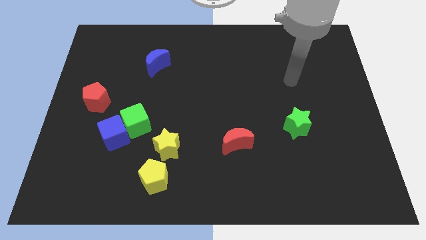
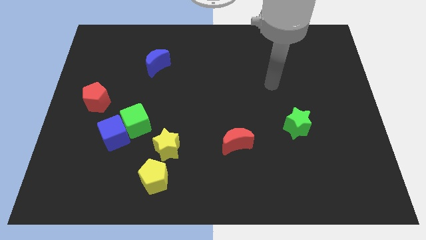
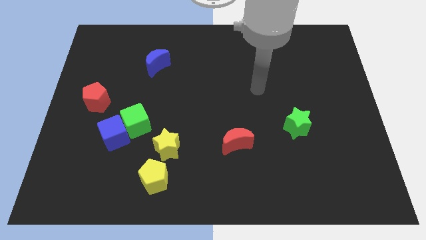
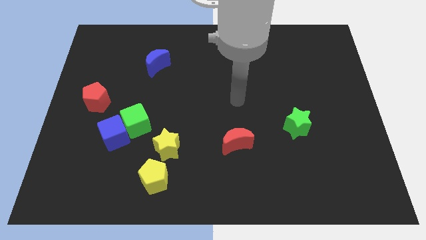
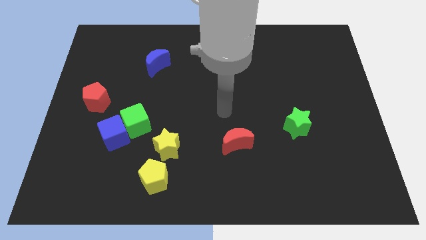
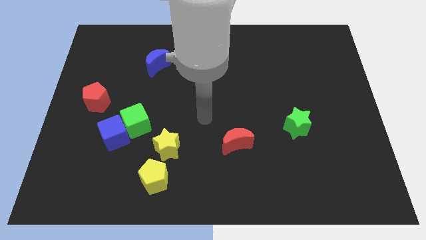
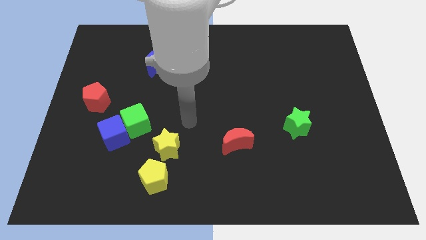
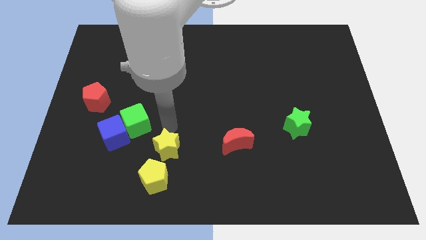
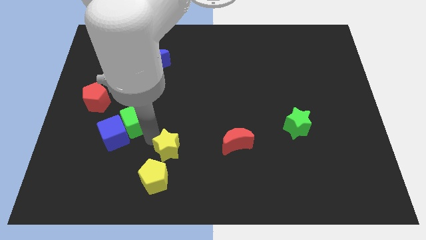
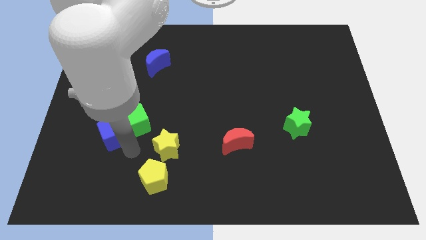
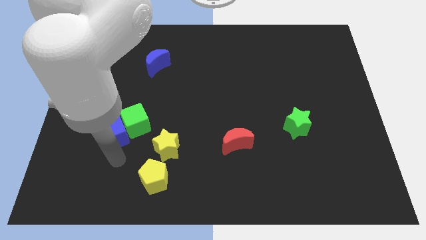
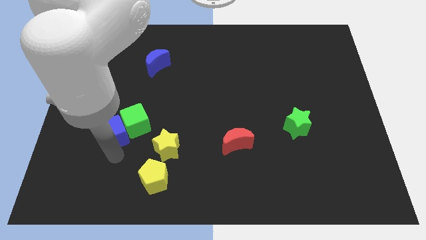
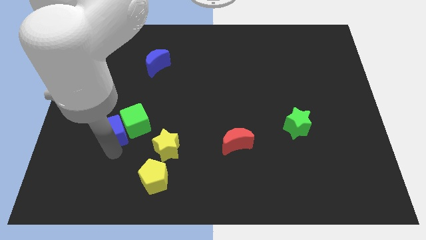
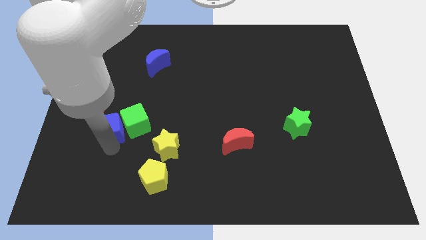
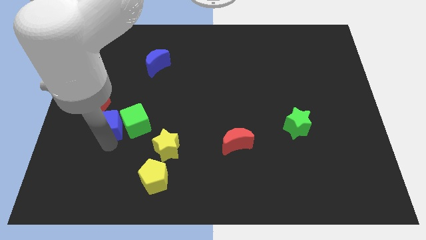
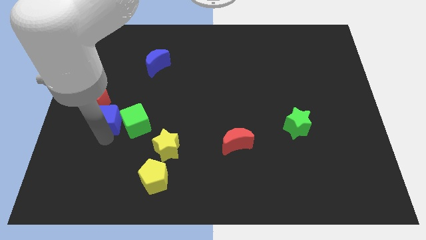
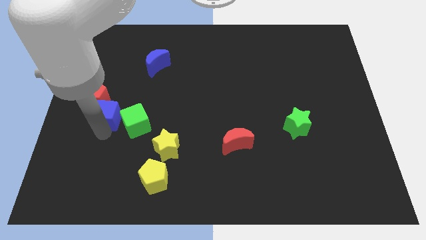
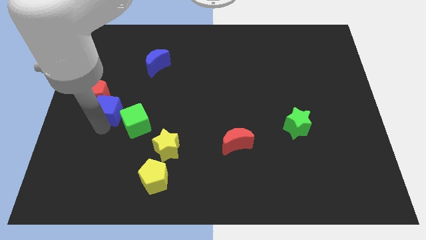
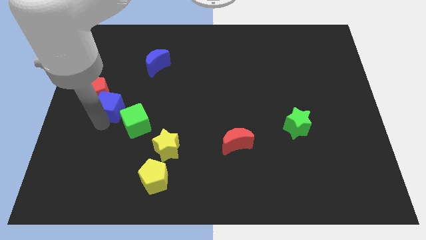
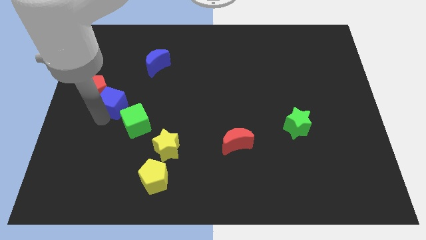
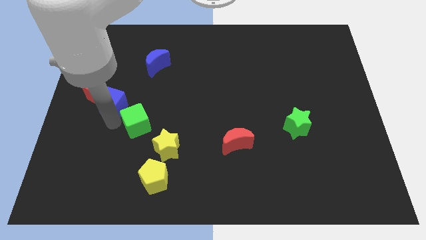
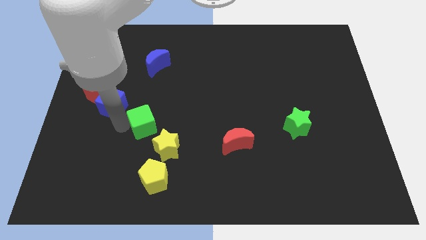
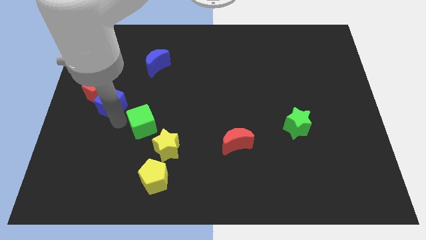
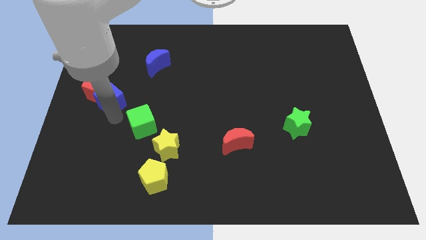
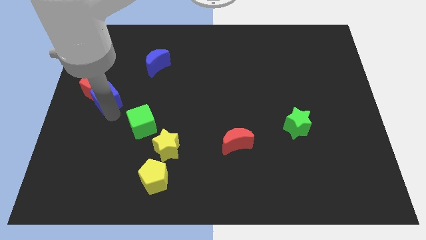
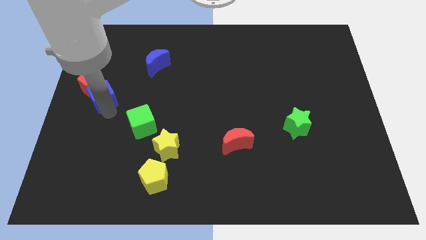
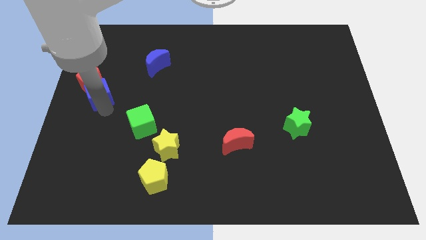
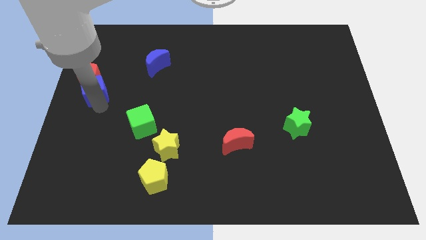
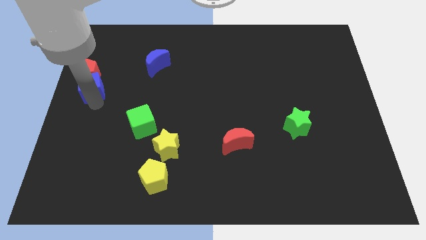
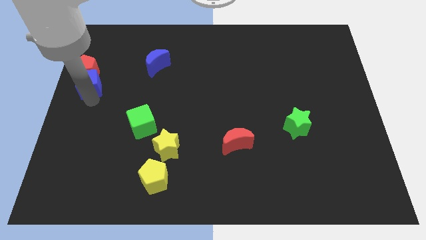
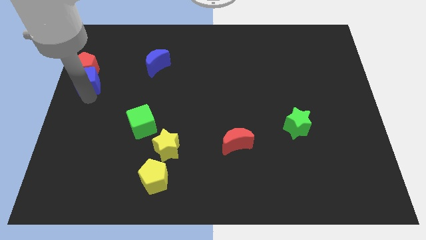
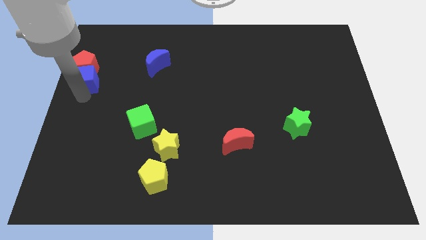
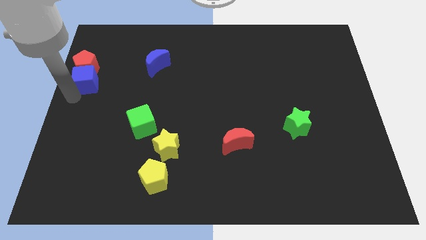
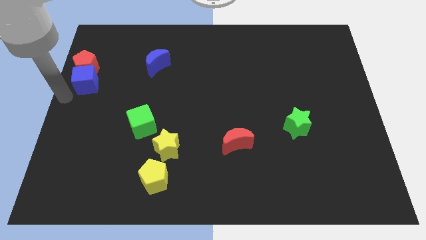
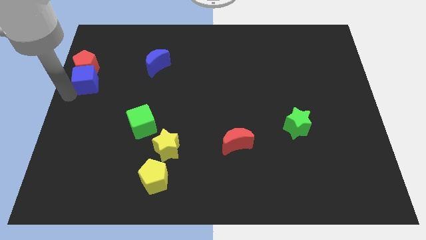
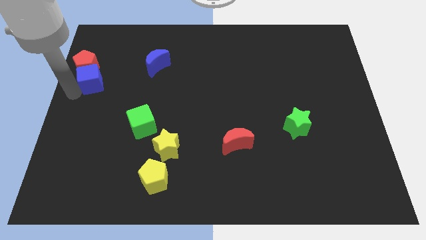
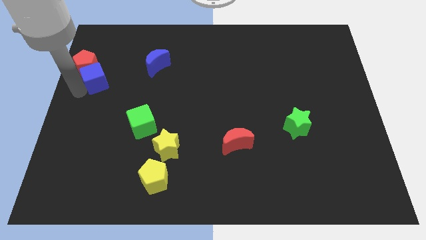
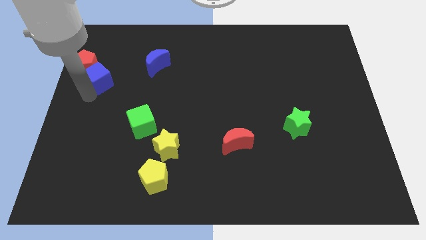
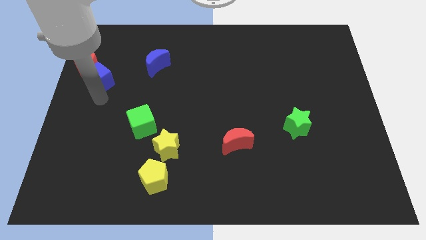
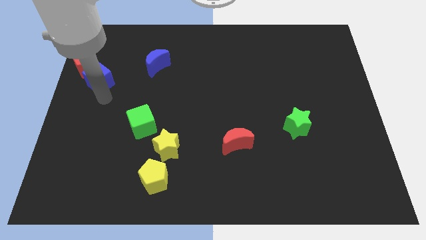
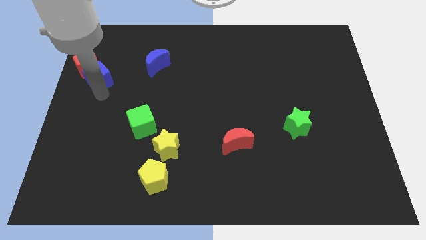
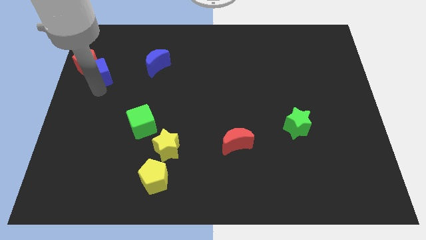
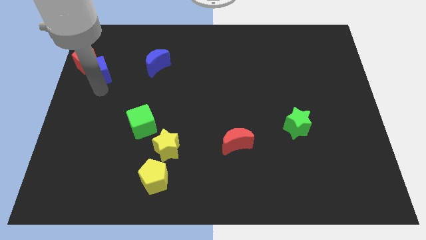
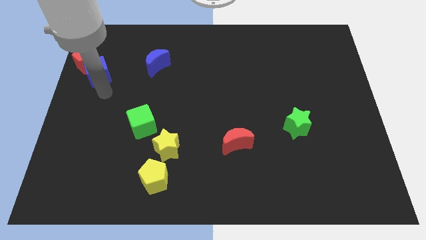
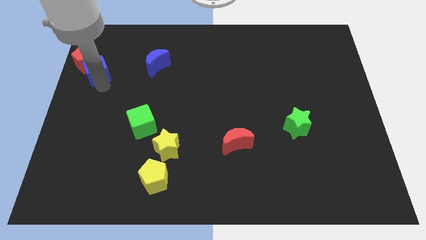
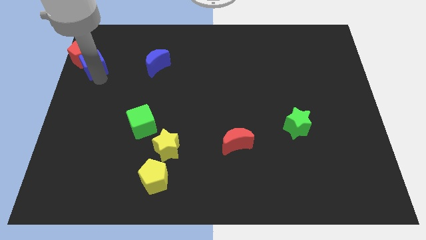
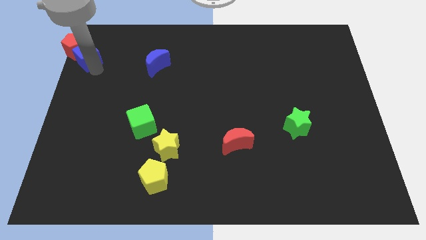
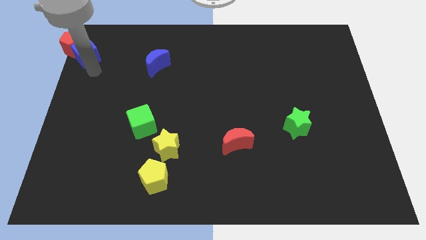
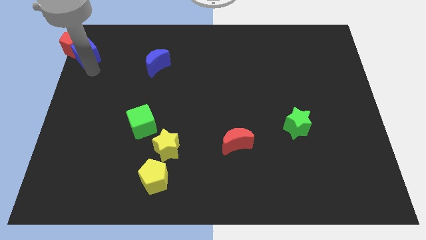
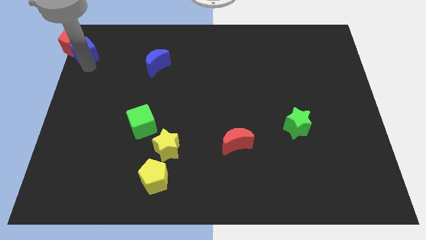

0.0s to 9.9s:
push the blue cube to the upper left corner
